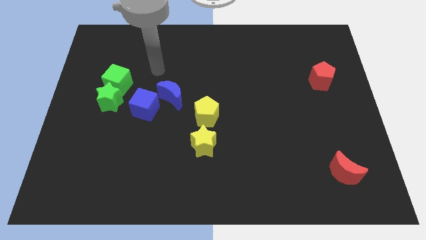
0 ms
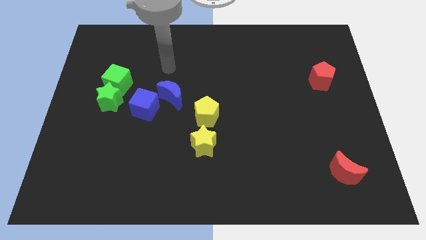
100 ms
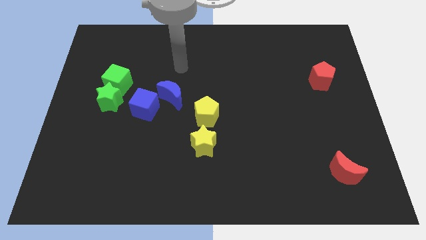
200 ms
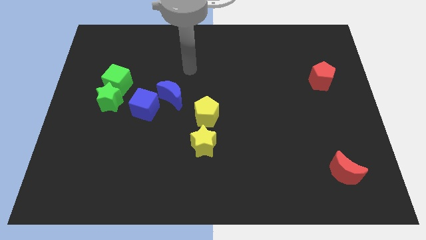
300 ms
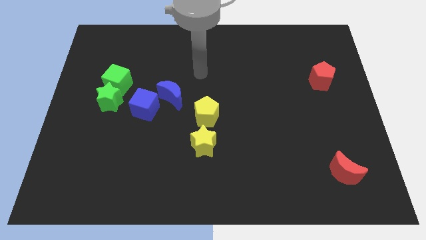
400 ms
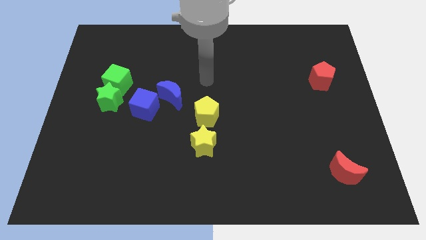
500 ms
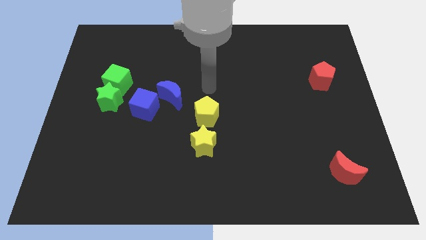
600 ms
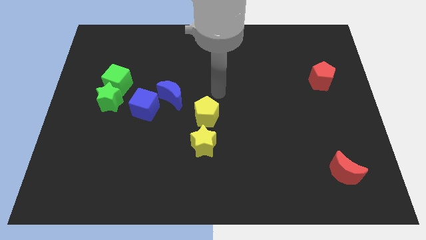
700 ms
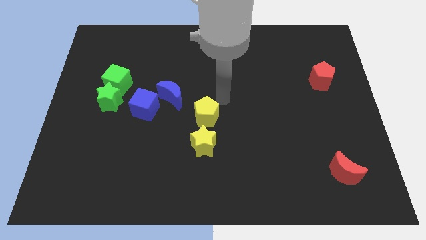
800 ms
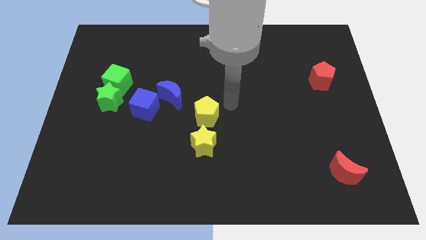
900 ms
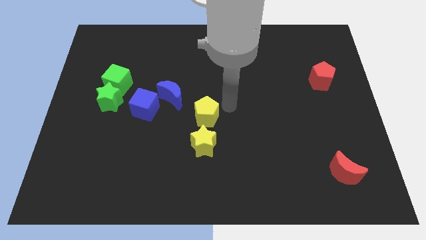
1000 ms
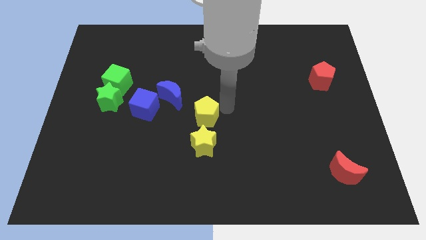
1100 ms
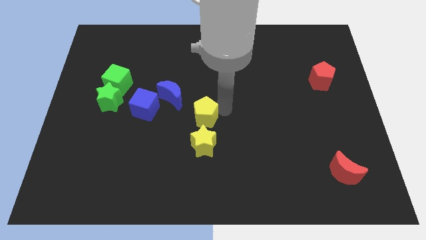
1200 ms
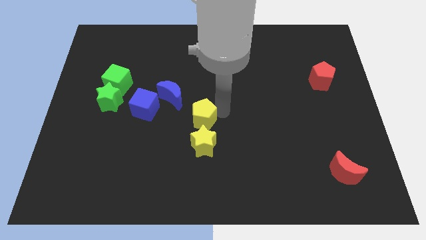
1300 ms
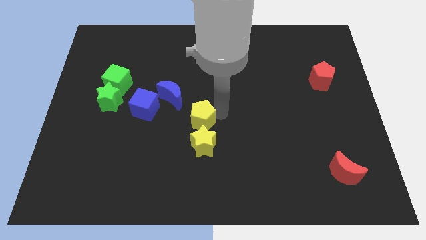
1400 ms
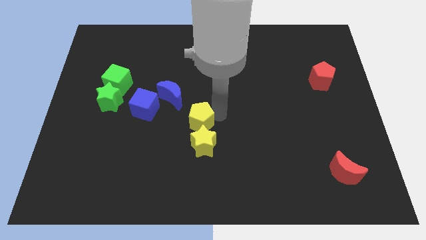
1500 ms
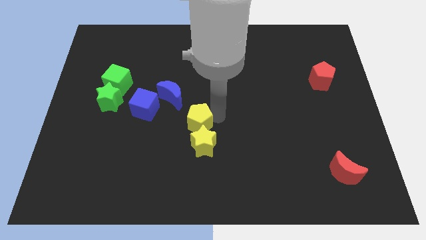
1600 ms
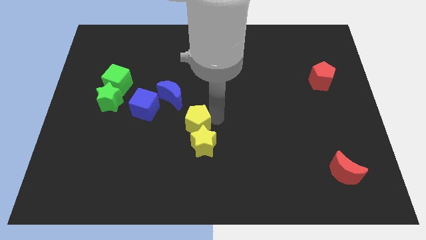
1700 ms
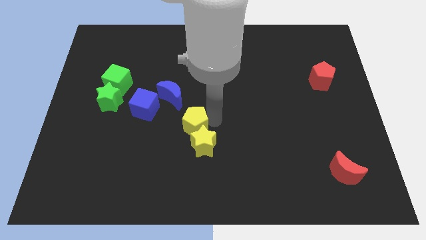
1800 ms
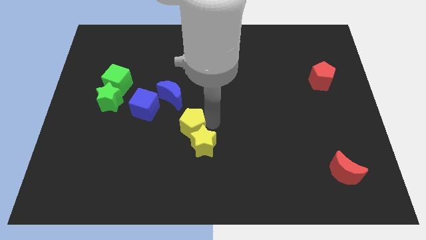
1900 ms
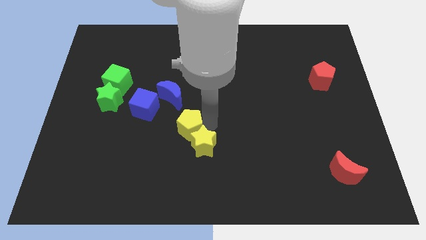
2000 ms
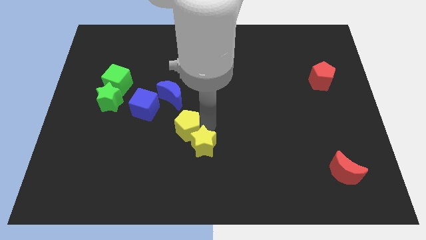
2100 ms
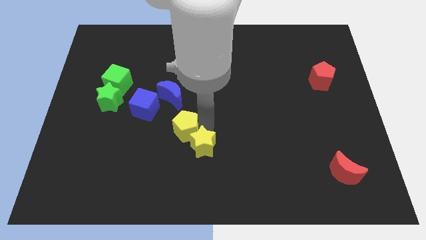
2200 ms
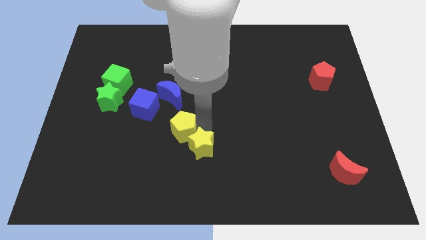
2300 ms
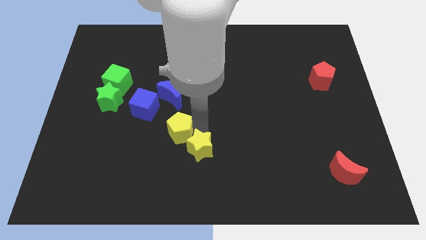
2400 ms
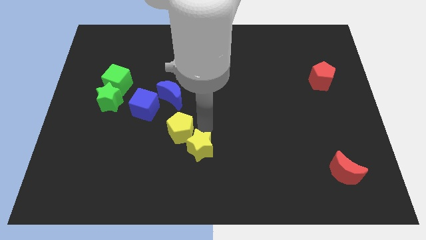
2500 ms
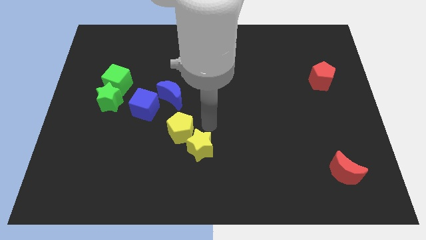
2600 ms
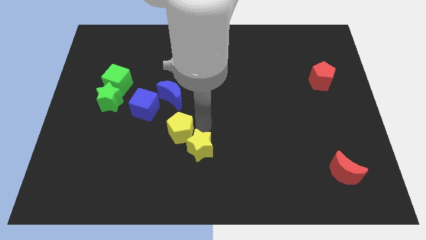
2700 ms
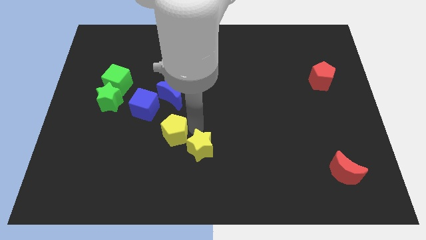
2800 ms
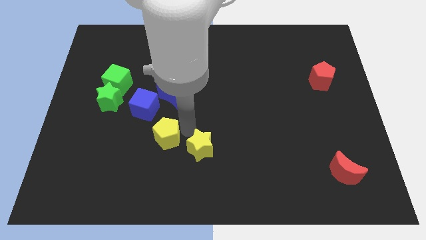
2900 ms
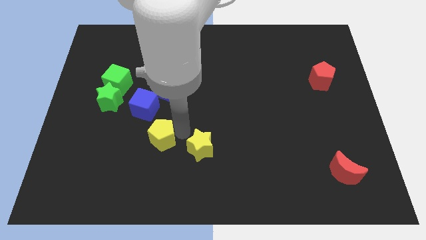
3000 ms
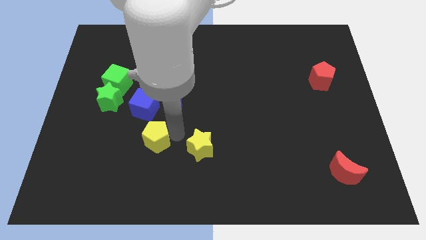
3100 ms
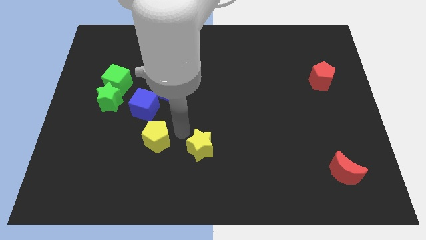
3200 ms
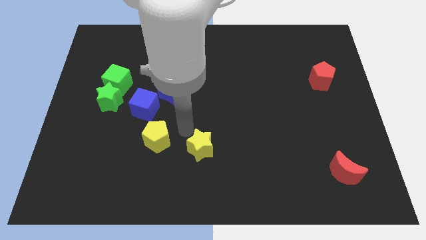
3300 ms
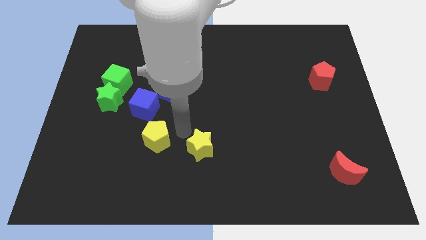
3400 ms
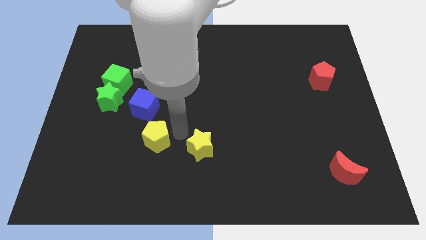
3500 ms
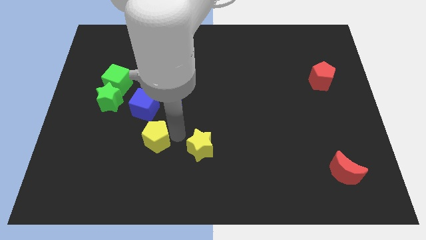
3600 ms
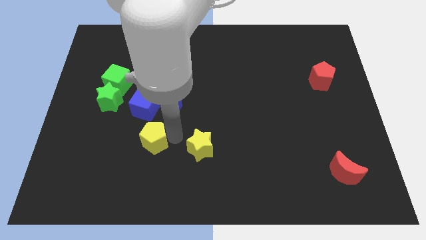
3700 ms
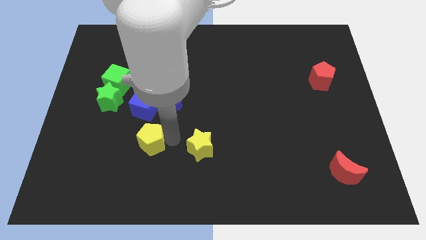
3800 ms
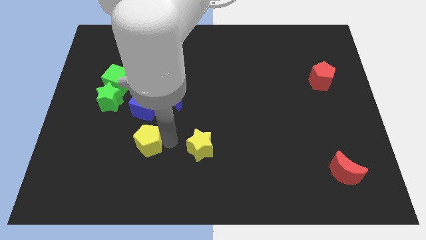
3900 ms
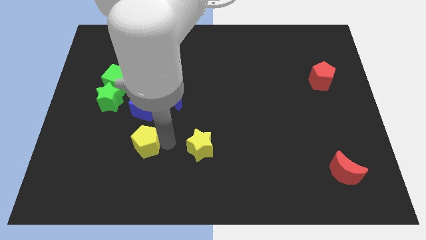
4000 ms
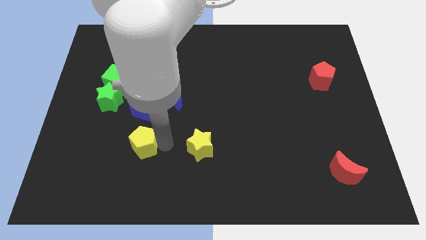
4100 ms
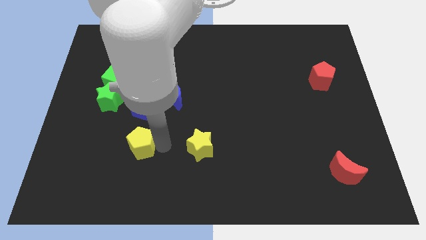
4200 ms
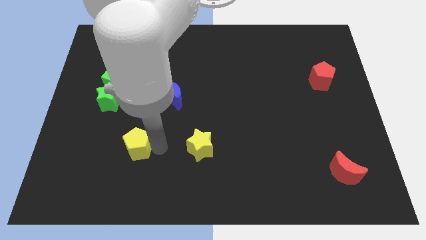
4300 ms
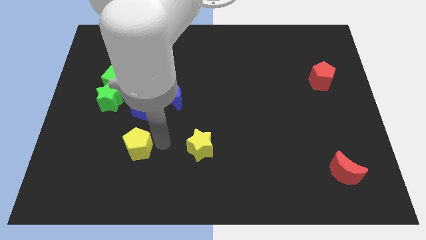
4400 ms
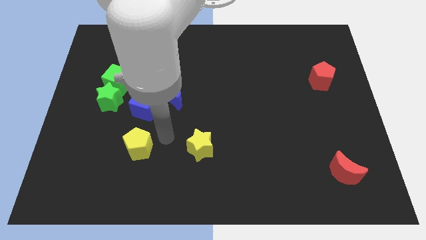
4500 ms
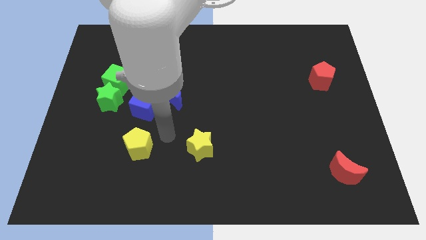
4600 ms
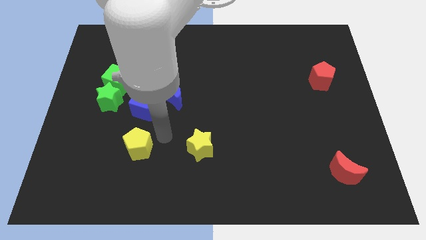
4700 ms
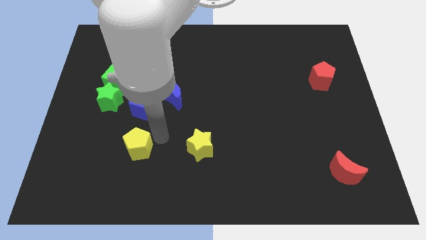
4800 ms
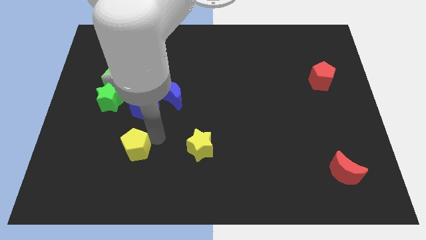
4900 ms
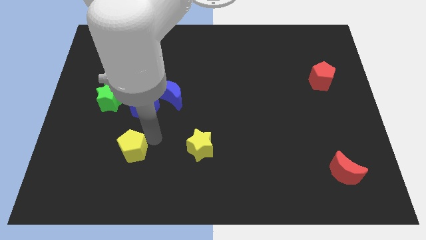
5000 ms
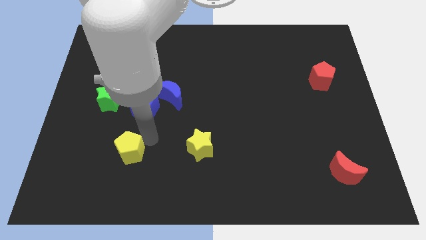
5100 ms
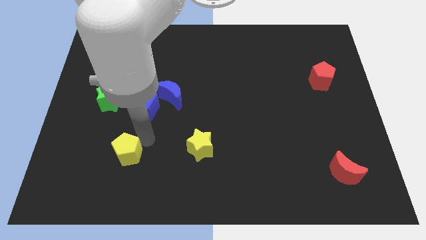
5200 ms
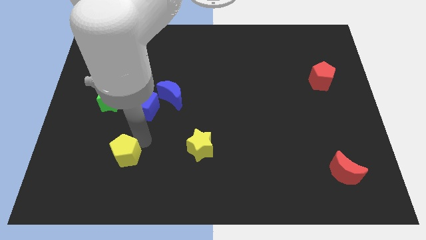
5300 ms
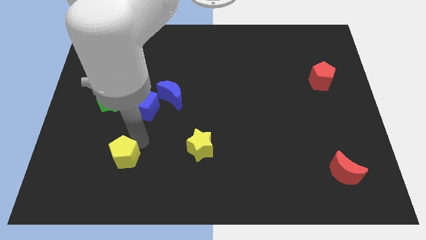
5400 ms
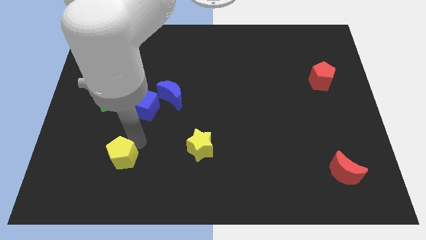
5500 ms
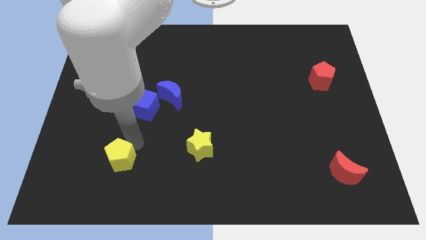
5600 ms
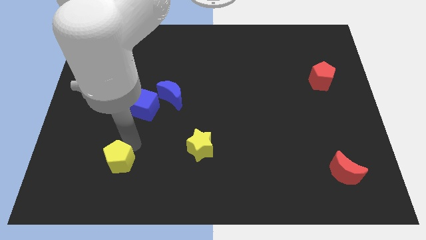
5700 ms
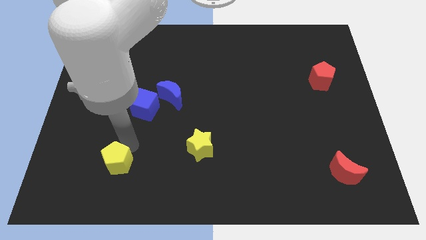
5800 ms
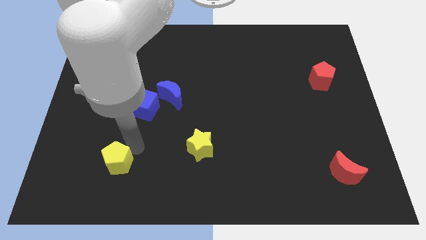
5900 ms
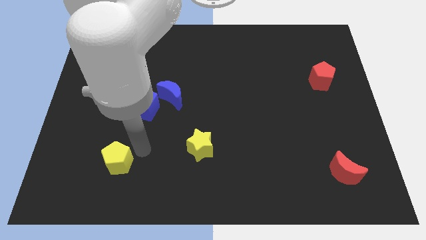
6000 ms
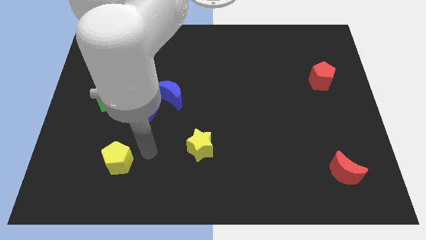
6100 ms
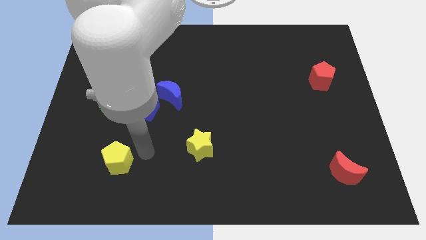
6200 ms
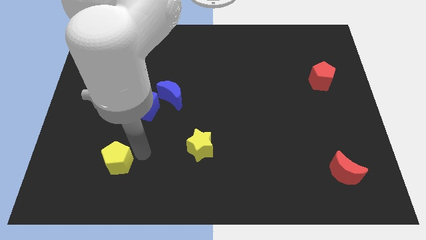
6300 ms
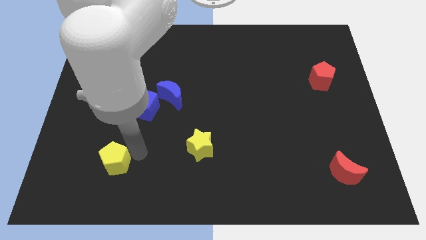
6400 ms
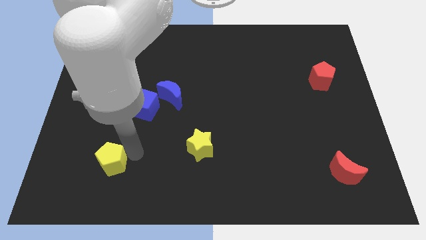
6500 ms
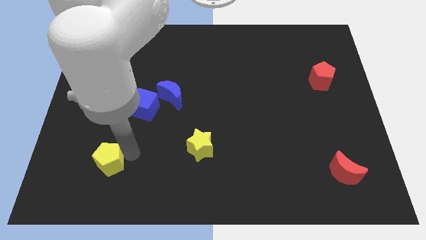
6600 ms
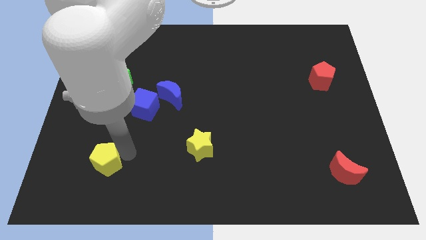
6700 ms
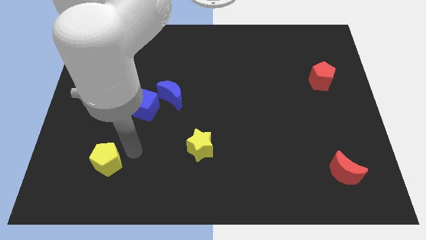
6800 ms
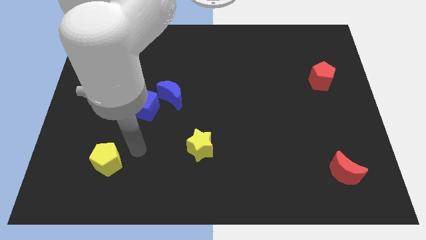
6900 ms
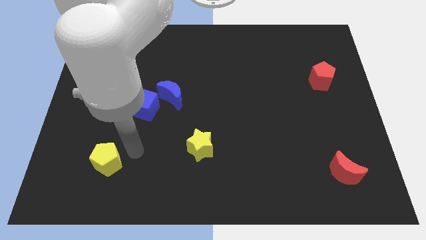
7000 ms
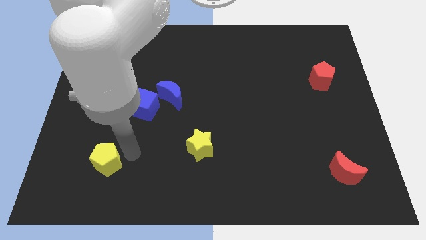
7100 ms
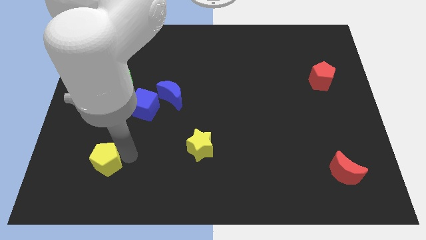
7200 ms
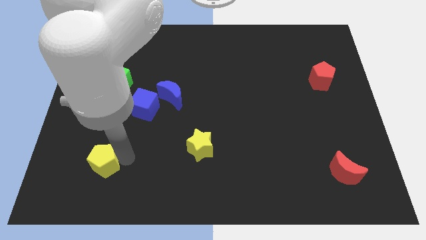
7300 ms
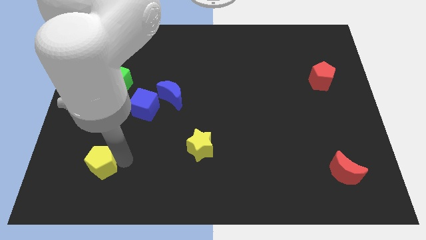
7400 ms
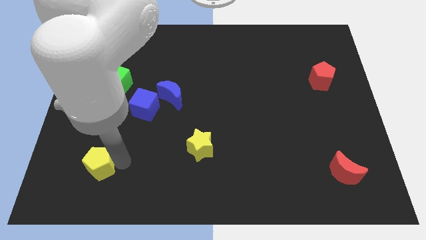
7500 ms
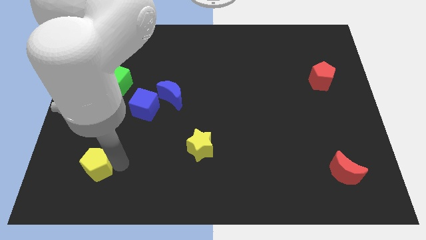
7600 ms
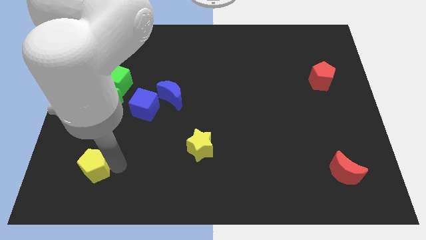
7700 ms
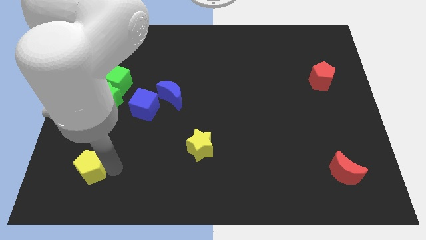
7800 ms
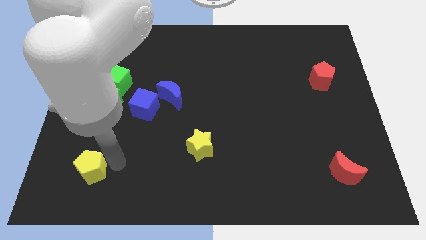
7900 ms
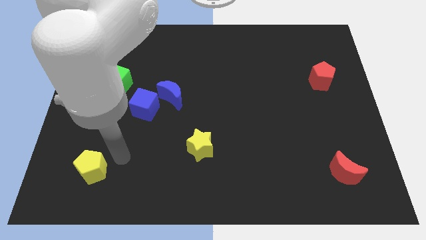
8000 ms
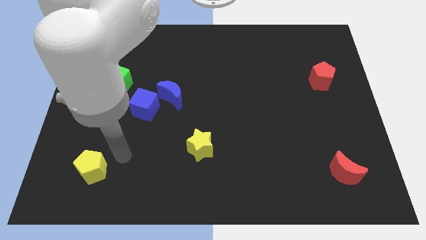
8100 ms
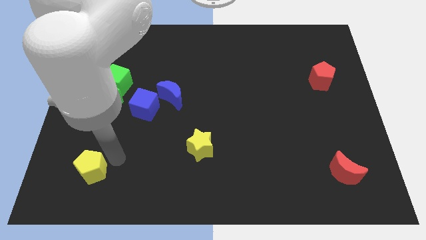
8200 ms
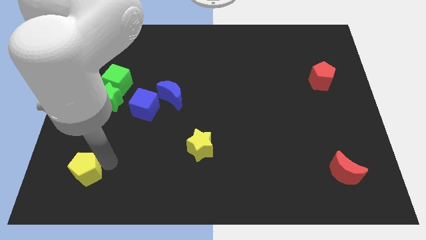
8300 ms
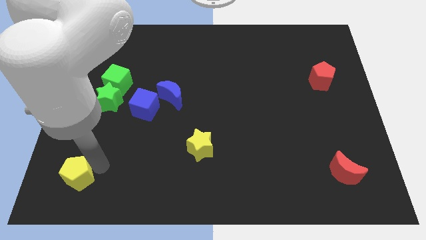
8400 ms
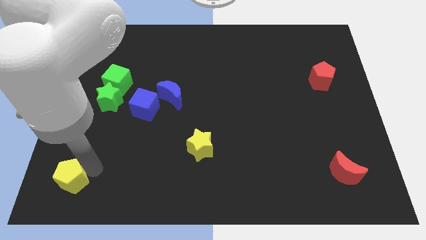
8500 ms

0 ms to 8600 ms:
slide the yellow pentagon to the lower left corner
